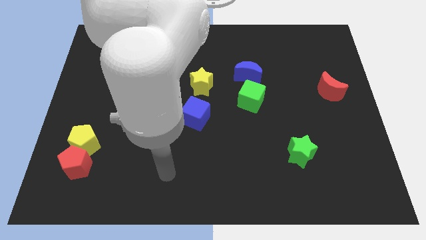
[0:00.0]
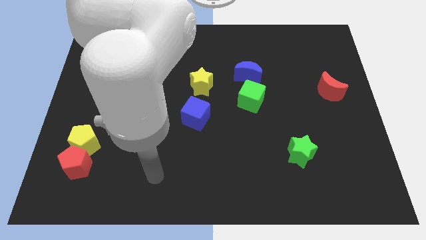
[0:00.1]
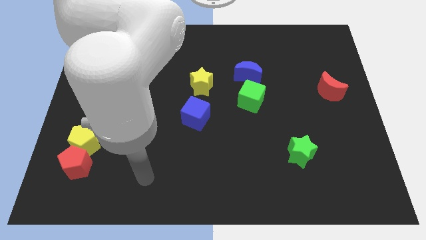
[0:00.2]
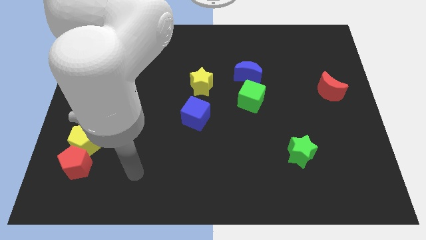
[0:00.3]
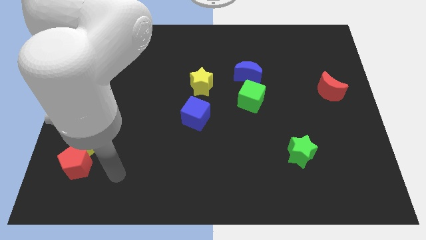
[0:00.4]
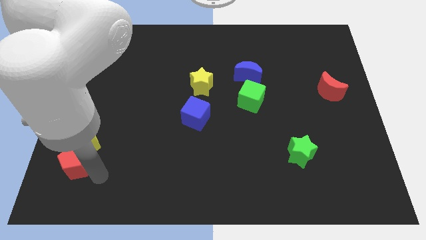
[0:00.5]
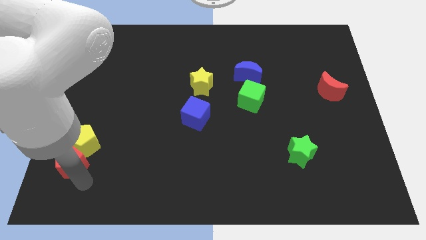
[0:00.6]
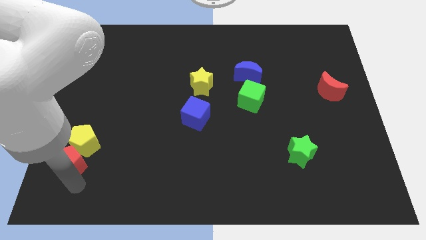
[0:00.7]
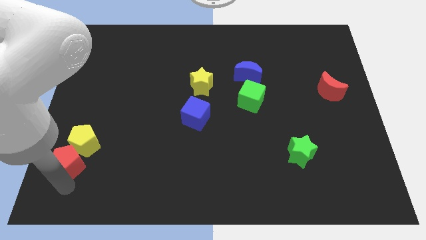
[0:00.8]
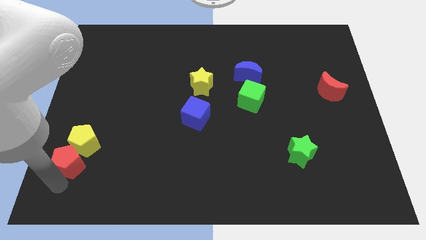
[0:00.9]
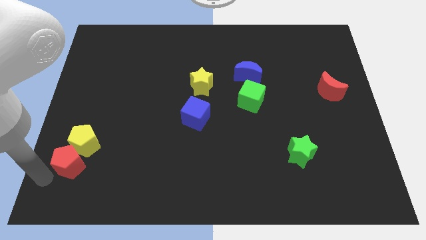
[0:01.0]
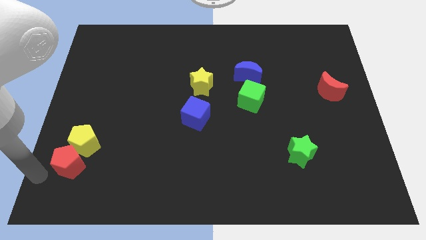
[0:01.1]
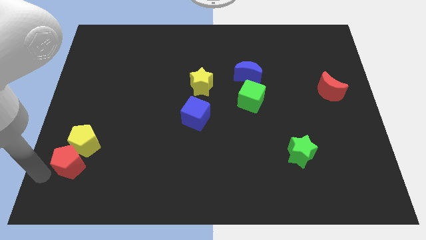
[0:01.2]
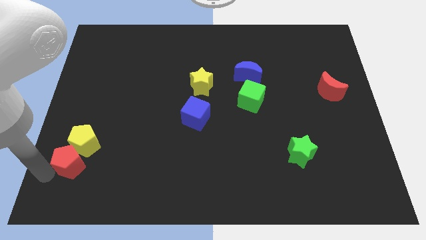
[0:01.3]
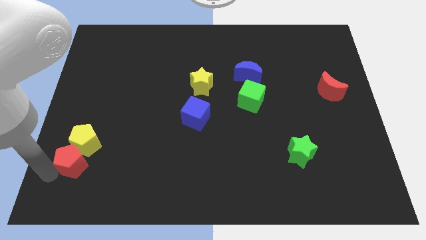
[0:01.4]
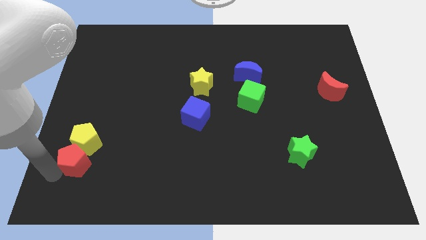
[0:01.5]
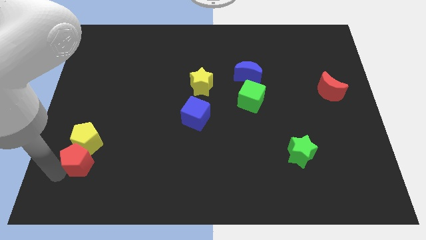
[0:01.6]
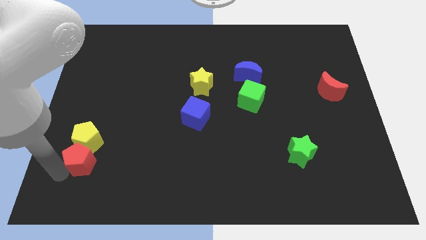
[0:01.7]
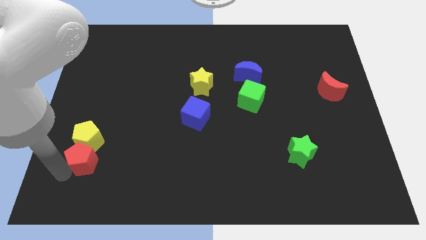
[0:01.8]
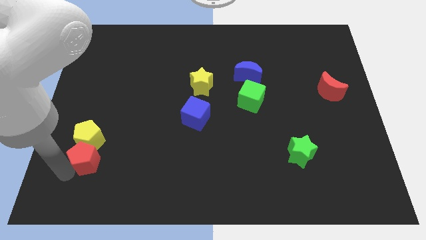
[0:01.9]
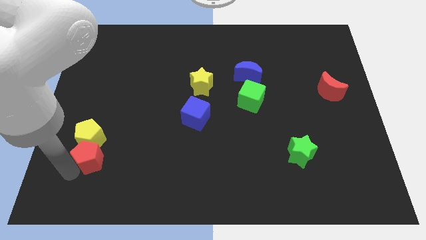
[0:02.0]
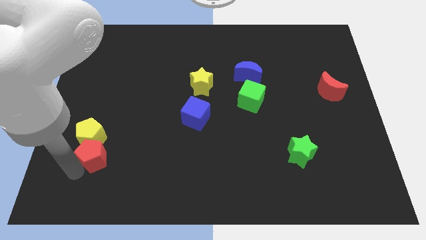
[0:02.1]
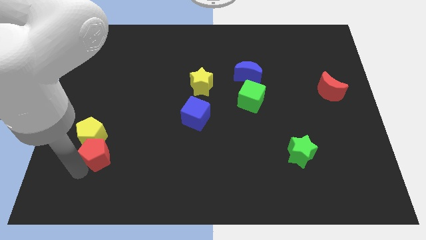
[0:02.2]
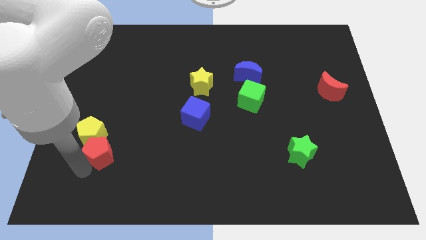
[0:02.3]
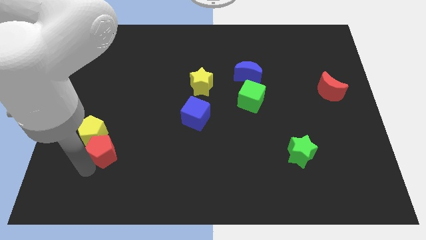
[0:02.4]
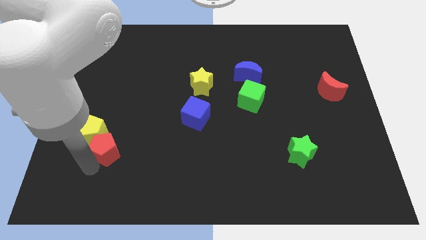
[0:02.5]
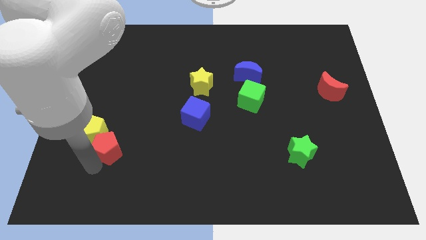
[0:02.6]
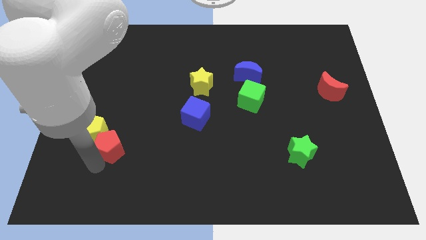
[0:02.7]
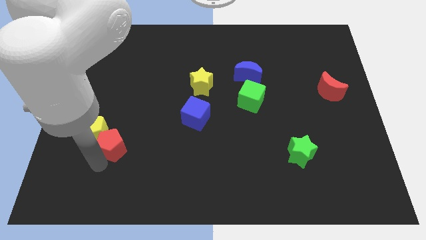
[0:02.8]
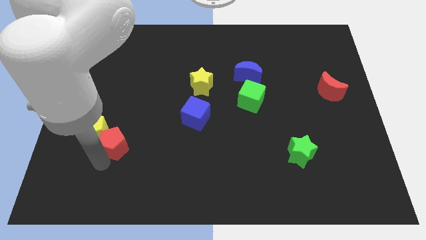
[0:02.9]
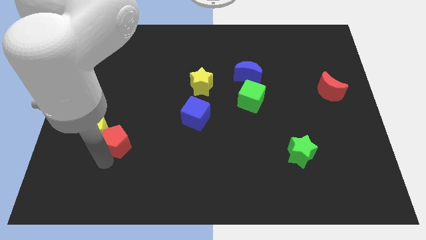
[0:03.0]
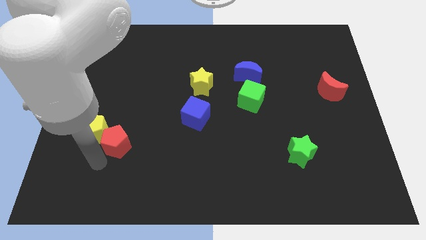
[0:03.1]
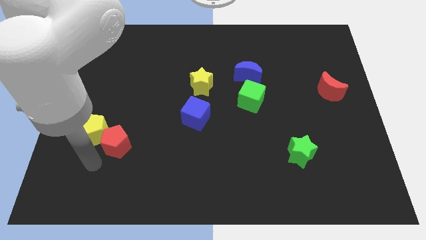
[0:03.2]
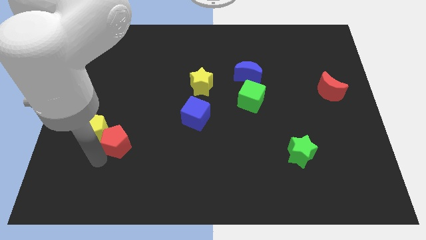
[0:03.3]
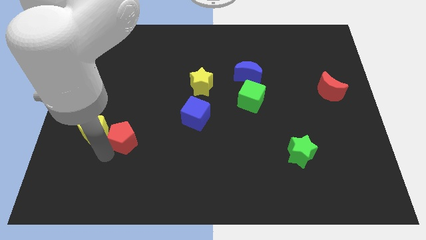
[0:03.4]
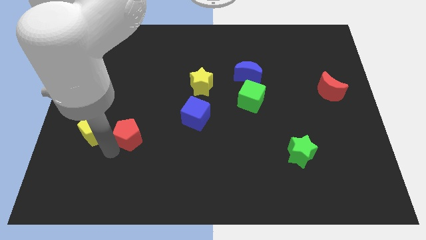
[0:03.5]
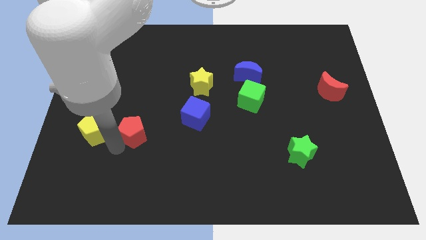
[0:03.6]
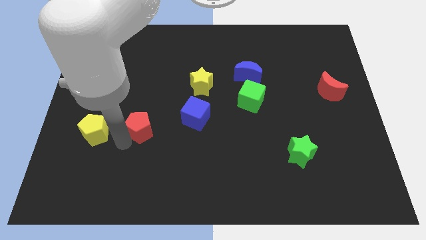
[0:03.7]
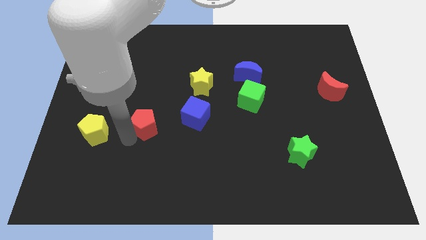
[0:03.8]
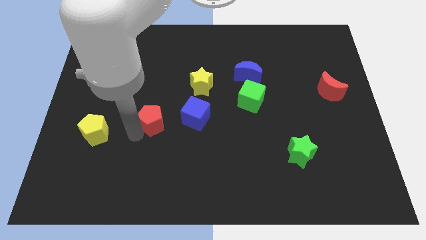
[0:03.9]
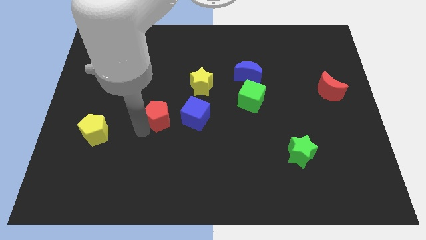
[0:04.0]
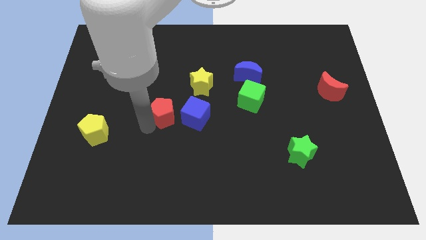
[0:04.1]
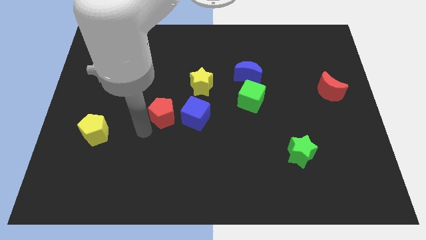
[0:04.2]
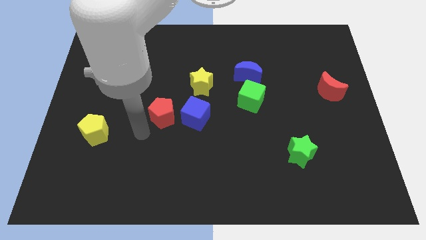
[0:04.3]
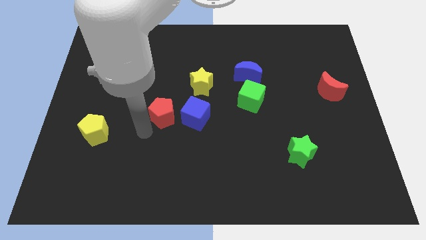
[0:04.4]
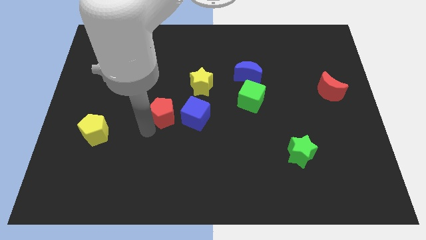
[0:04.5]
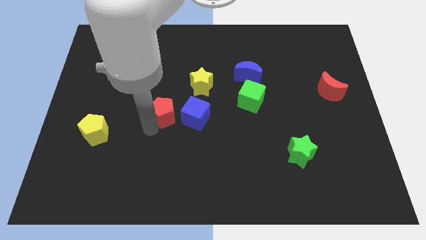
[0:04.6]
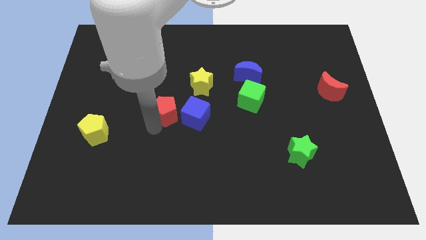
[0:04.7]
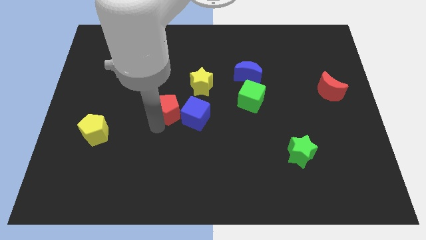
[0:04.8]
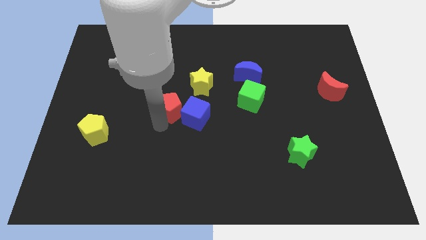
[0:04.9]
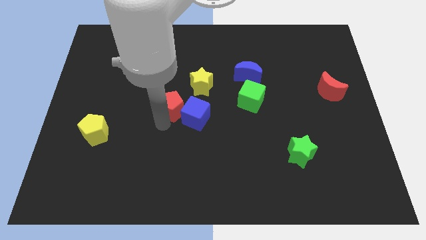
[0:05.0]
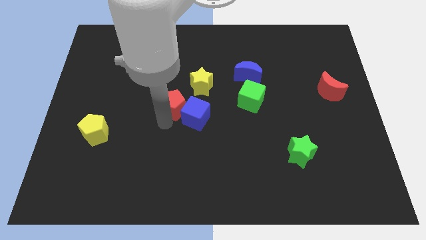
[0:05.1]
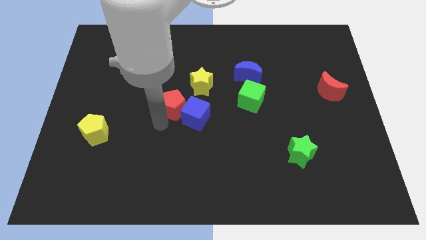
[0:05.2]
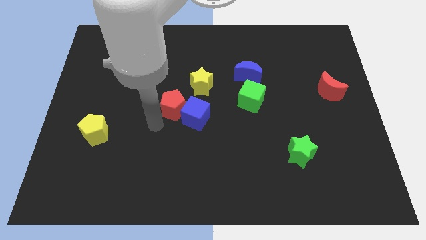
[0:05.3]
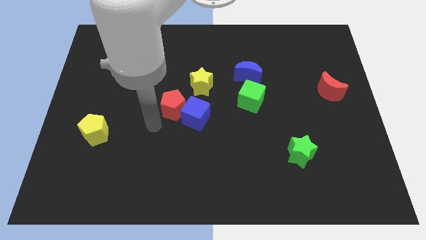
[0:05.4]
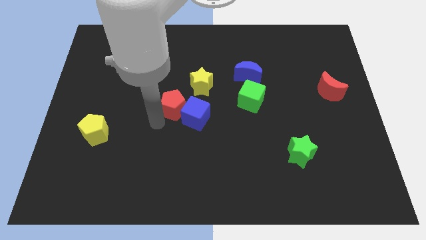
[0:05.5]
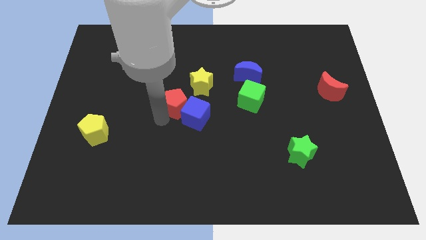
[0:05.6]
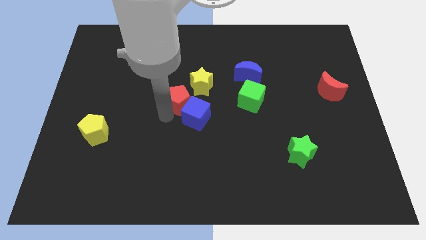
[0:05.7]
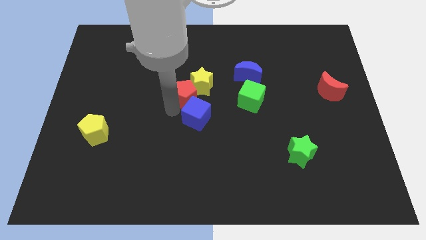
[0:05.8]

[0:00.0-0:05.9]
put the red pentagon next to the yellow star

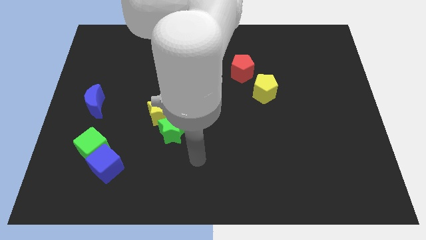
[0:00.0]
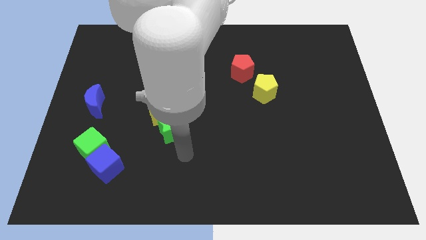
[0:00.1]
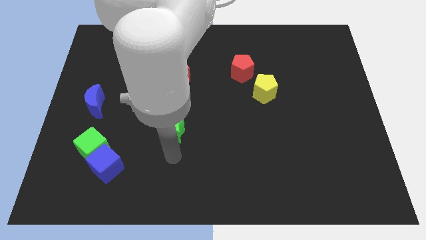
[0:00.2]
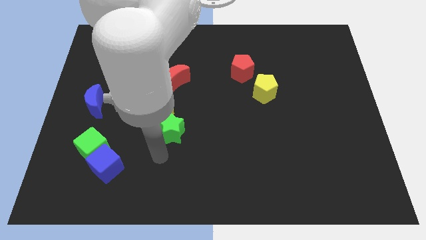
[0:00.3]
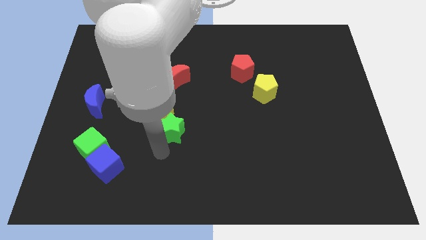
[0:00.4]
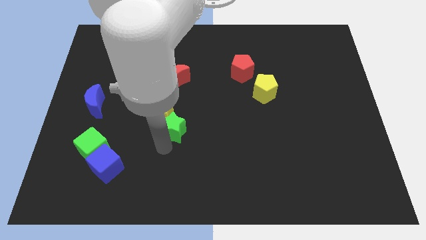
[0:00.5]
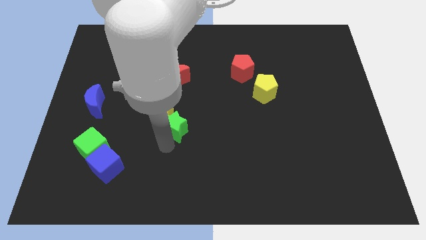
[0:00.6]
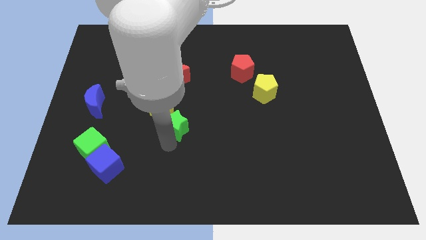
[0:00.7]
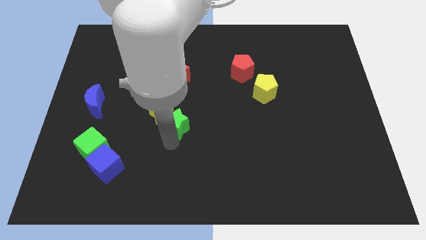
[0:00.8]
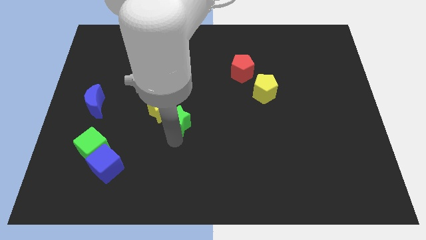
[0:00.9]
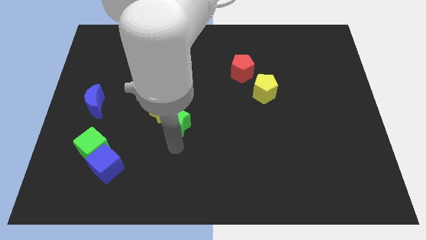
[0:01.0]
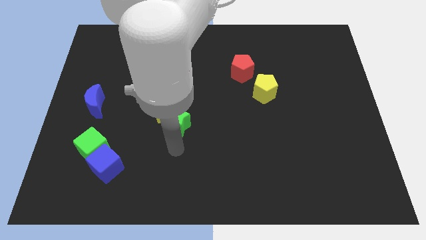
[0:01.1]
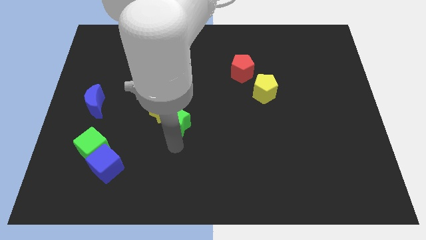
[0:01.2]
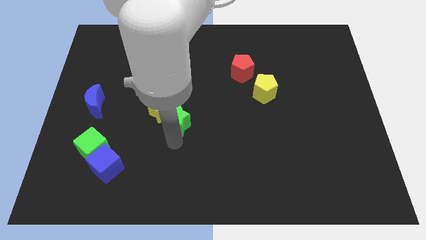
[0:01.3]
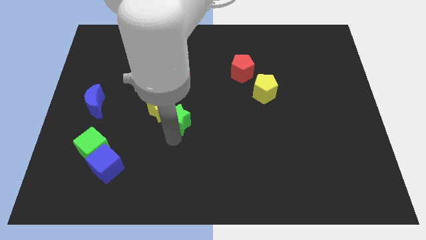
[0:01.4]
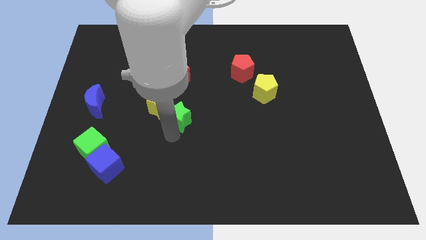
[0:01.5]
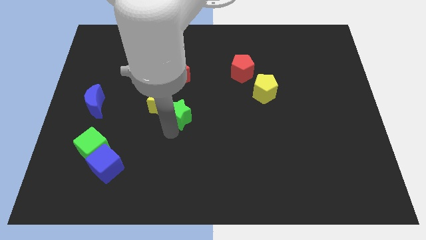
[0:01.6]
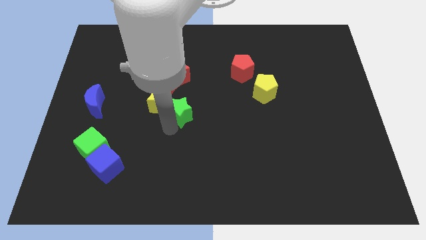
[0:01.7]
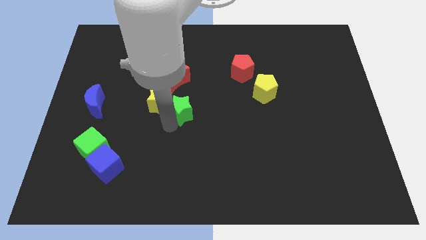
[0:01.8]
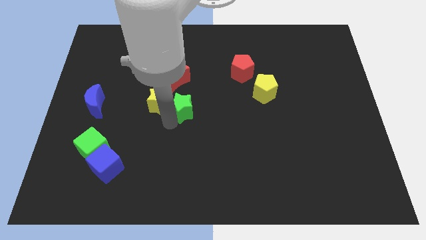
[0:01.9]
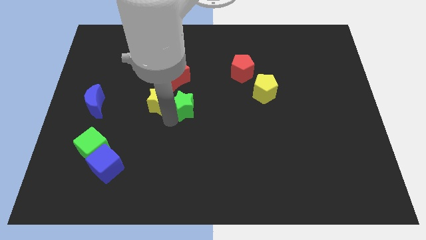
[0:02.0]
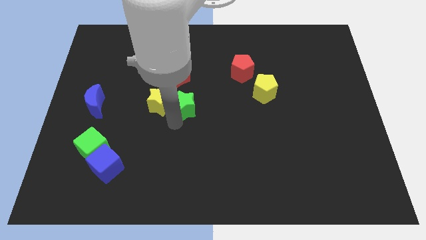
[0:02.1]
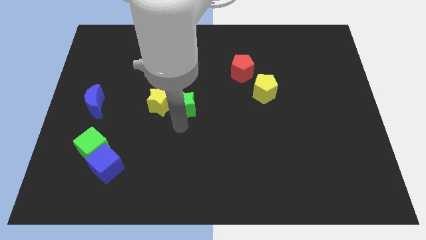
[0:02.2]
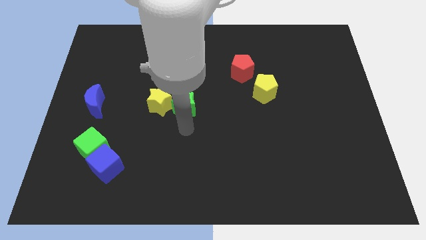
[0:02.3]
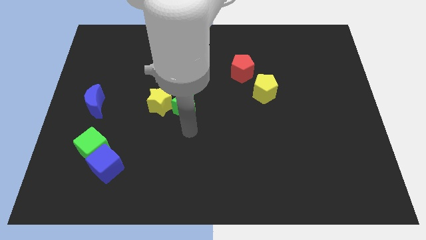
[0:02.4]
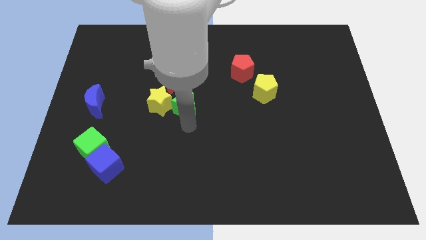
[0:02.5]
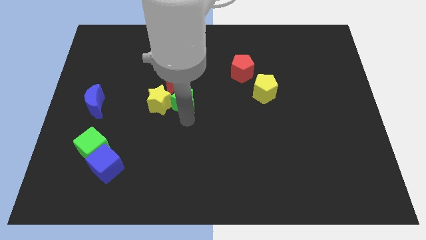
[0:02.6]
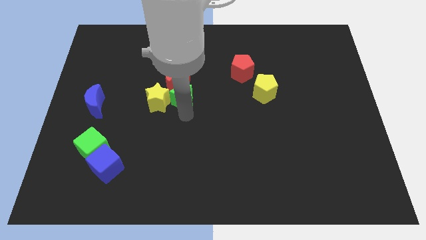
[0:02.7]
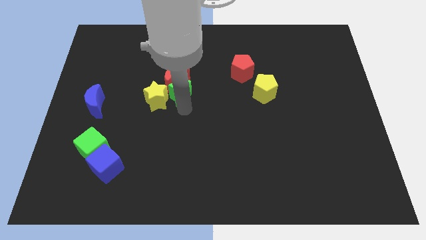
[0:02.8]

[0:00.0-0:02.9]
move the green star close to the red moon
